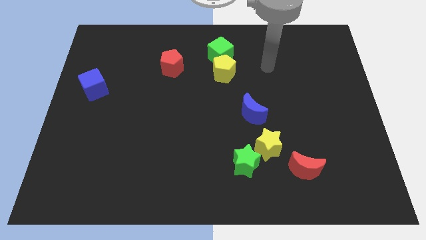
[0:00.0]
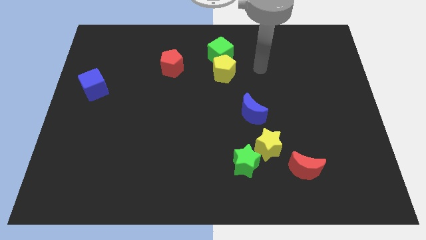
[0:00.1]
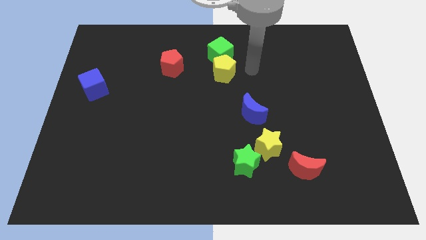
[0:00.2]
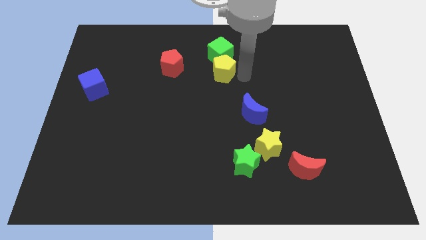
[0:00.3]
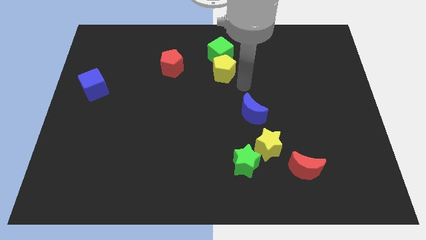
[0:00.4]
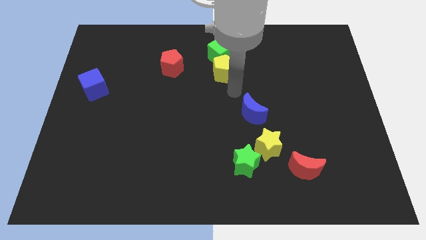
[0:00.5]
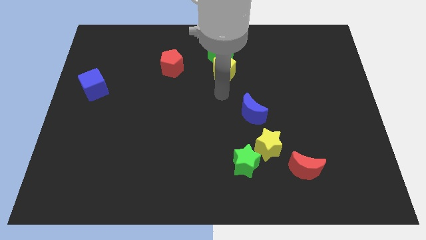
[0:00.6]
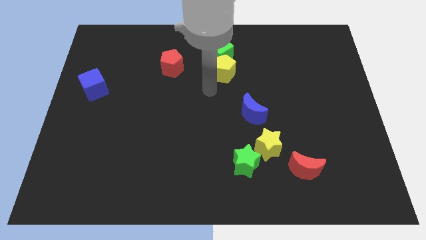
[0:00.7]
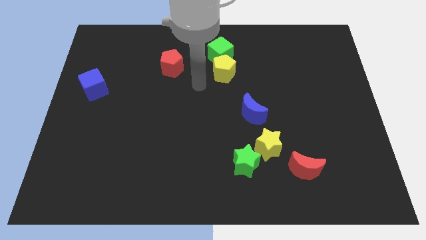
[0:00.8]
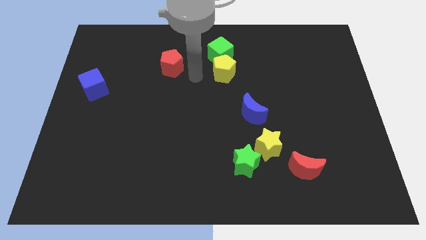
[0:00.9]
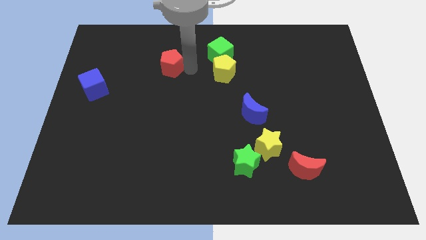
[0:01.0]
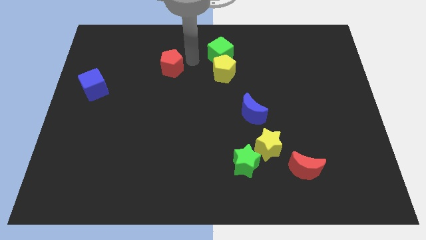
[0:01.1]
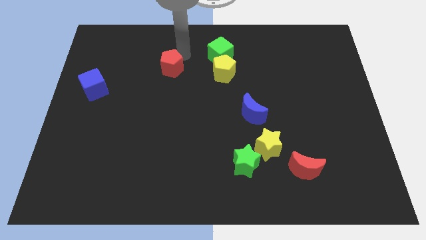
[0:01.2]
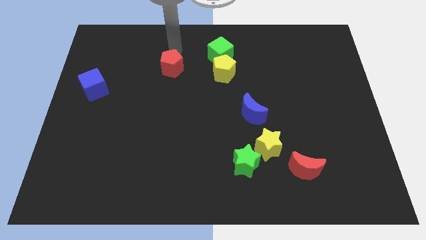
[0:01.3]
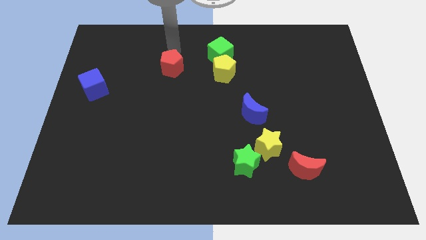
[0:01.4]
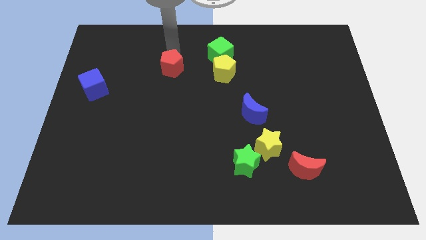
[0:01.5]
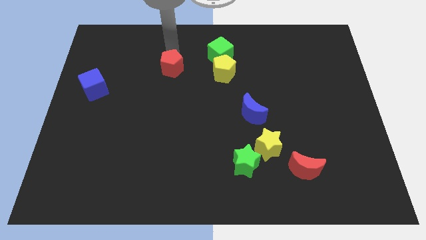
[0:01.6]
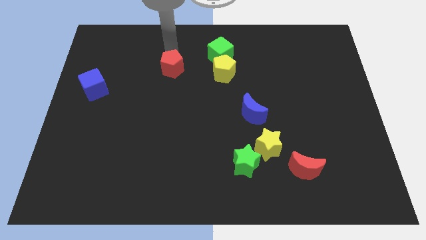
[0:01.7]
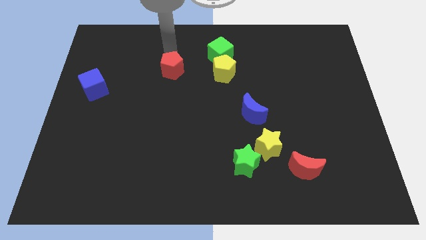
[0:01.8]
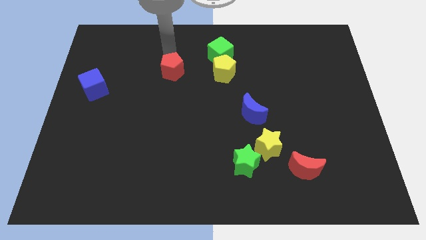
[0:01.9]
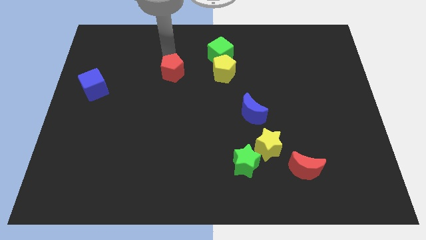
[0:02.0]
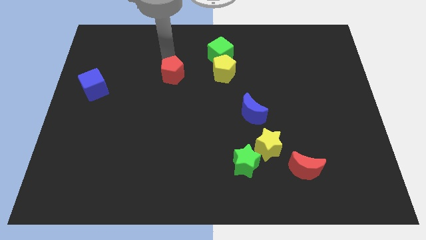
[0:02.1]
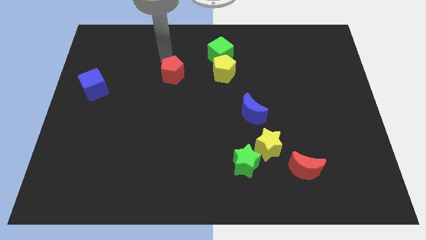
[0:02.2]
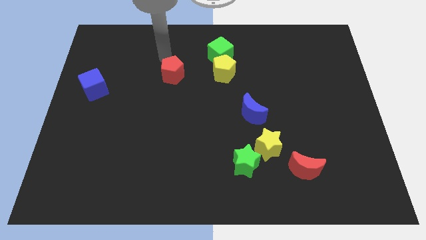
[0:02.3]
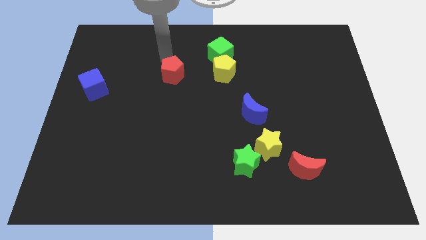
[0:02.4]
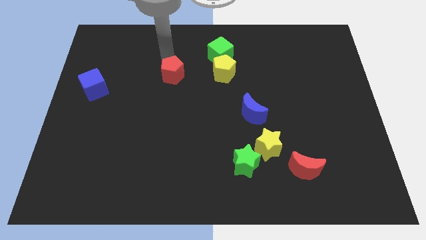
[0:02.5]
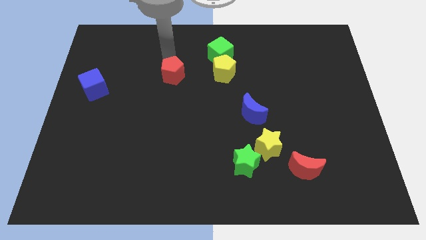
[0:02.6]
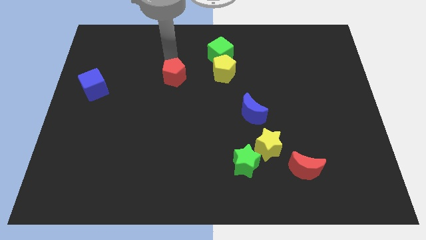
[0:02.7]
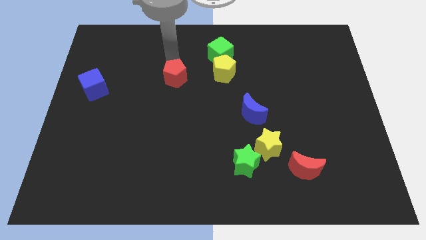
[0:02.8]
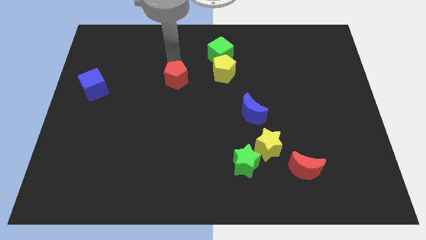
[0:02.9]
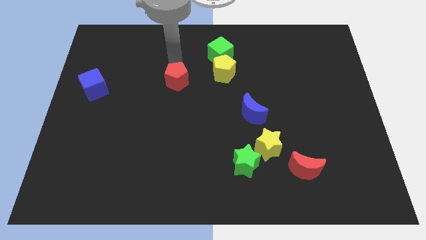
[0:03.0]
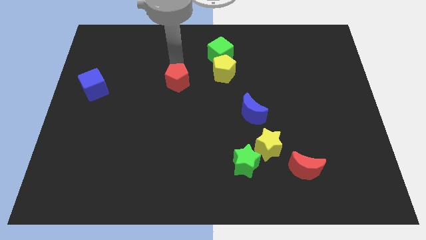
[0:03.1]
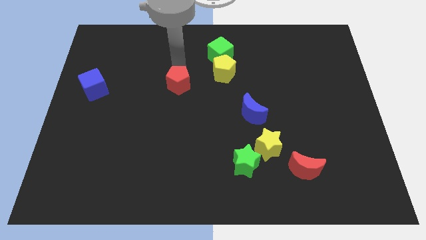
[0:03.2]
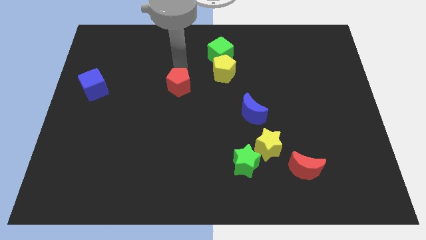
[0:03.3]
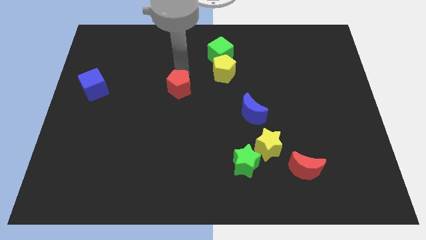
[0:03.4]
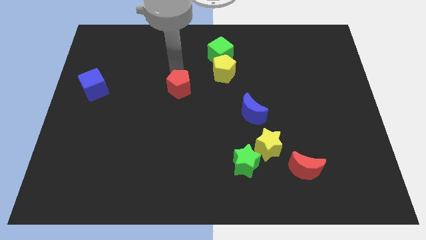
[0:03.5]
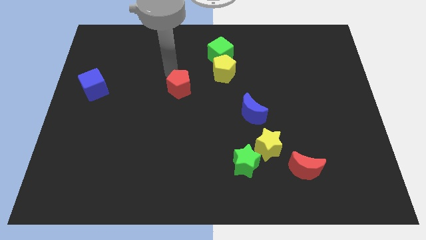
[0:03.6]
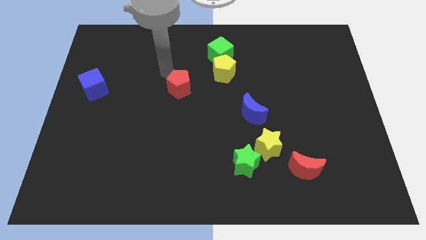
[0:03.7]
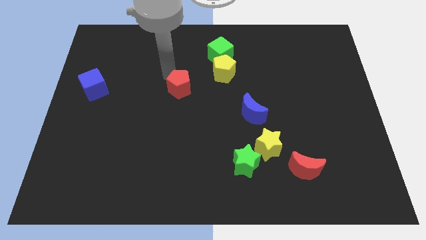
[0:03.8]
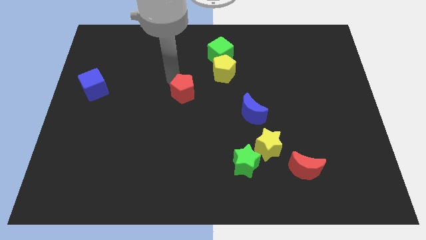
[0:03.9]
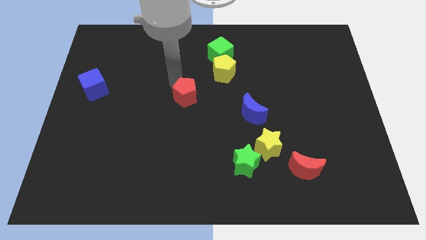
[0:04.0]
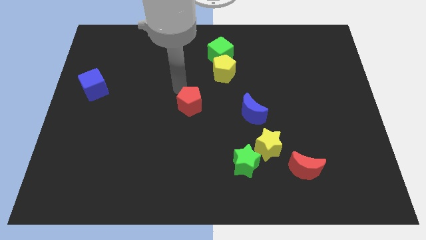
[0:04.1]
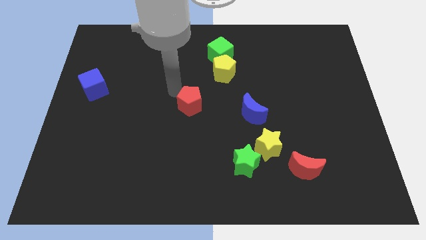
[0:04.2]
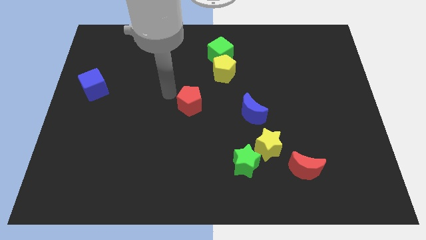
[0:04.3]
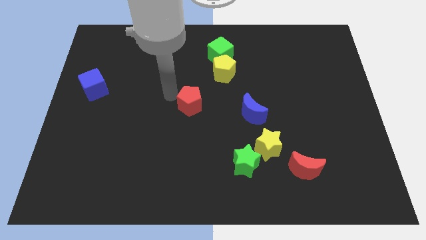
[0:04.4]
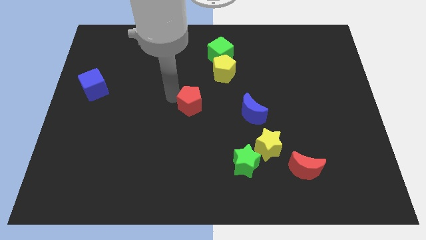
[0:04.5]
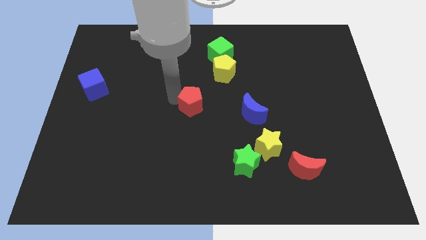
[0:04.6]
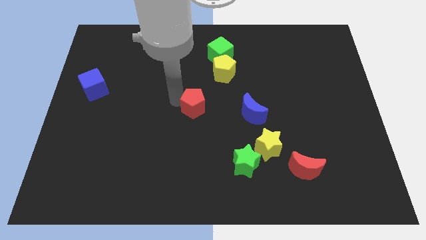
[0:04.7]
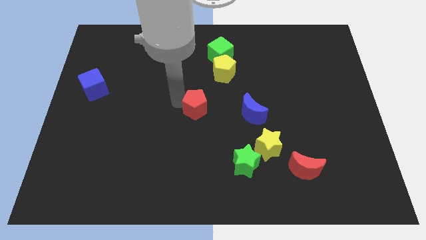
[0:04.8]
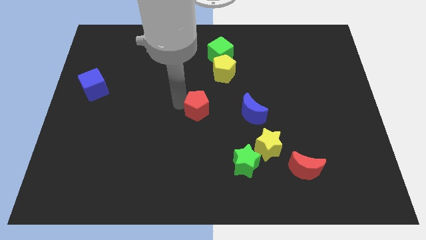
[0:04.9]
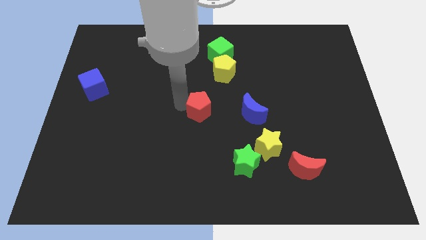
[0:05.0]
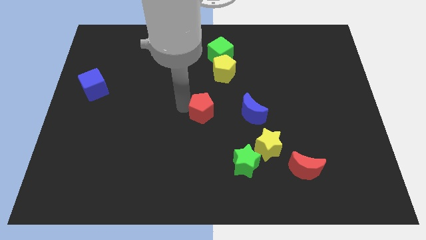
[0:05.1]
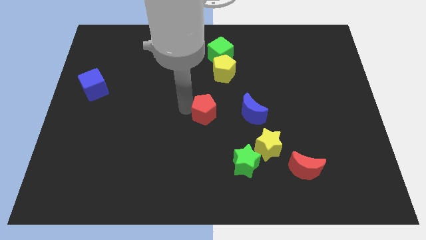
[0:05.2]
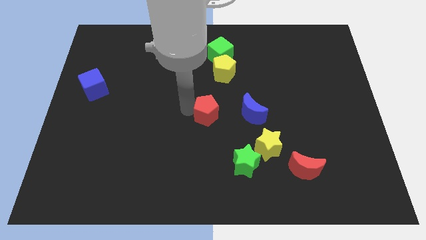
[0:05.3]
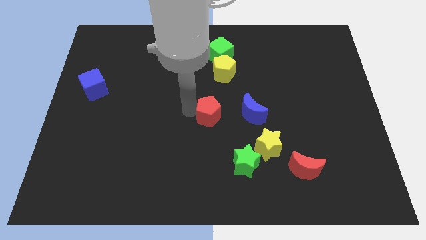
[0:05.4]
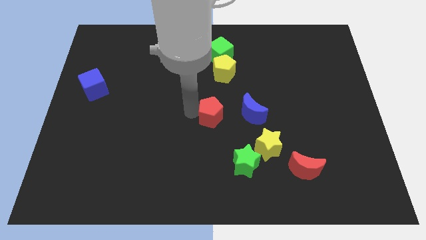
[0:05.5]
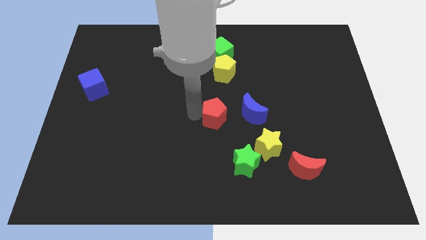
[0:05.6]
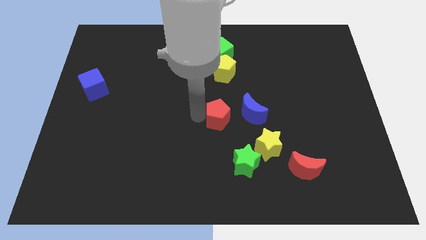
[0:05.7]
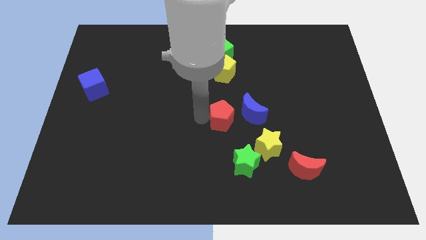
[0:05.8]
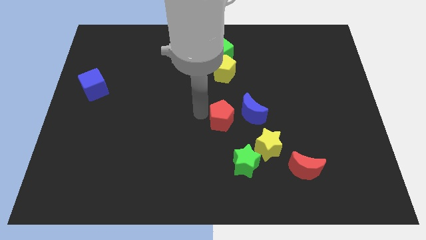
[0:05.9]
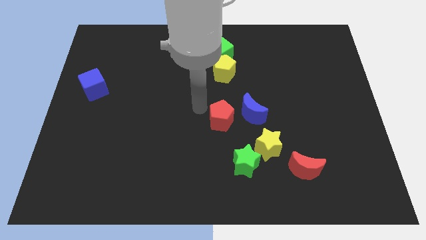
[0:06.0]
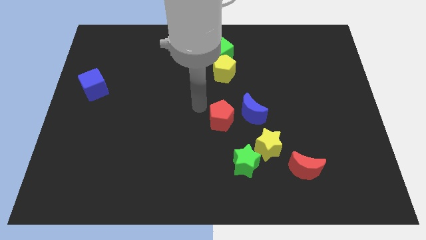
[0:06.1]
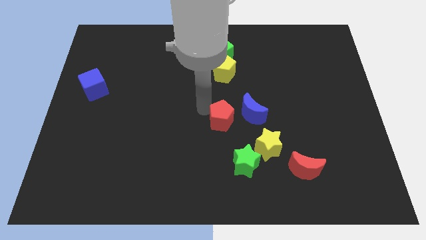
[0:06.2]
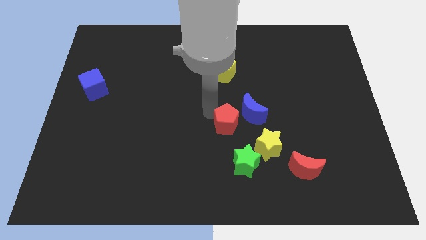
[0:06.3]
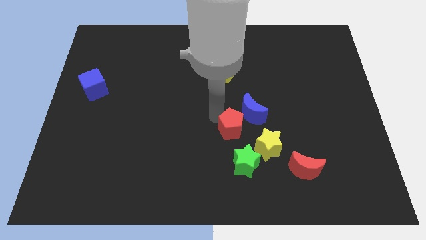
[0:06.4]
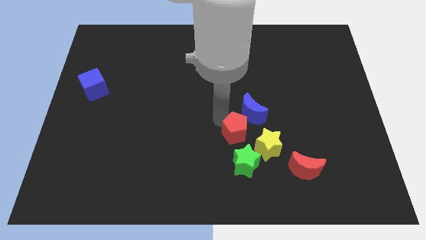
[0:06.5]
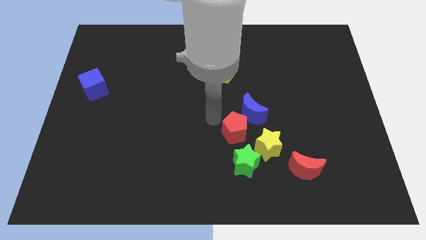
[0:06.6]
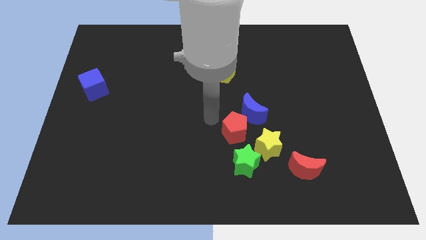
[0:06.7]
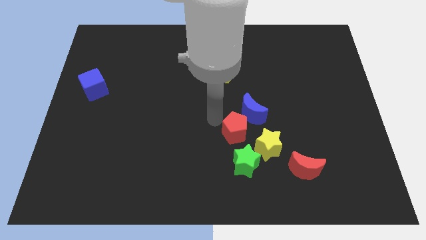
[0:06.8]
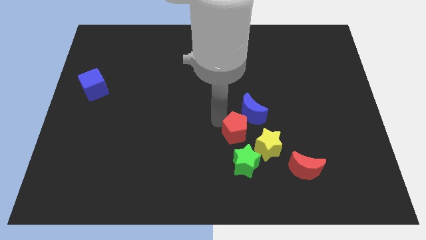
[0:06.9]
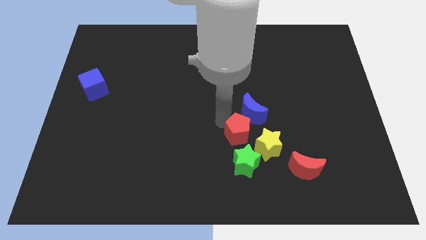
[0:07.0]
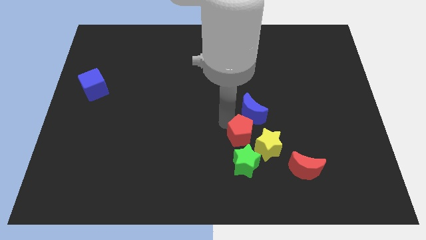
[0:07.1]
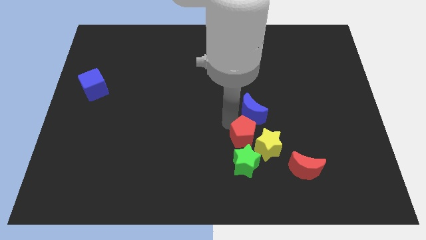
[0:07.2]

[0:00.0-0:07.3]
push the red pentagon towards the yellow star
